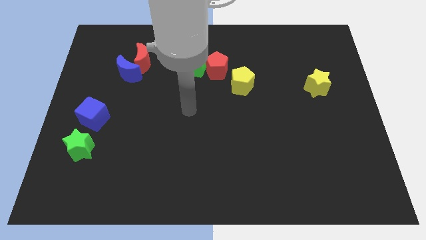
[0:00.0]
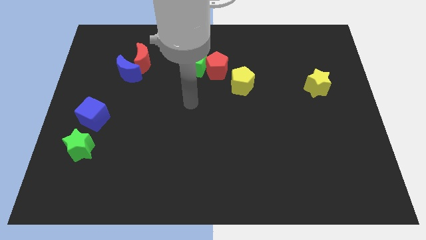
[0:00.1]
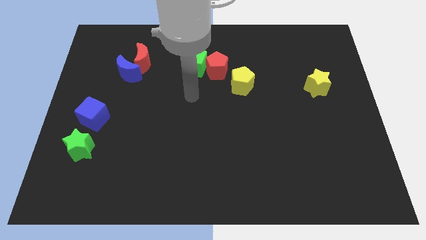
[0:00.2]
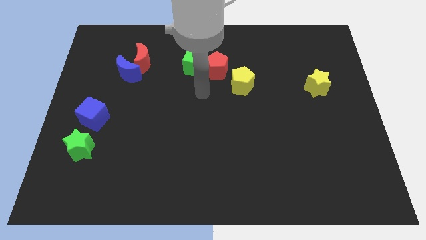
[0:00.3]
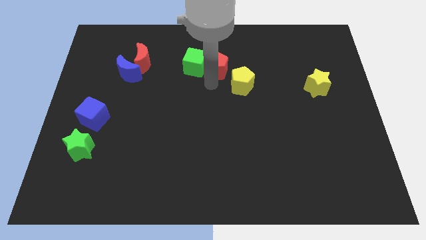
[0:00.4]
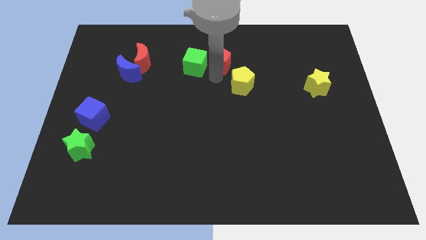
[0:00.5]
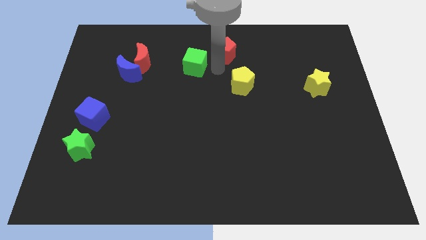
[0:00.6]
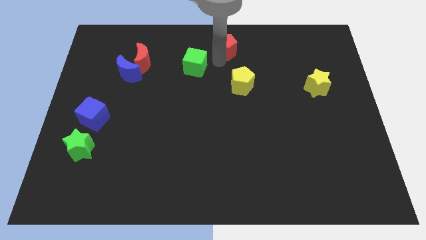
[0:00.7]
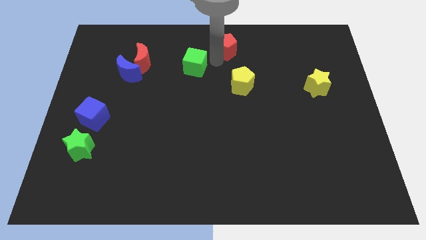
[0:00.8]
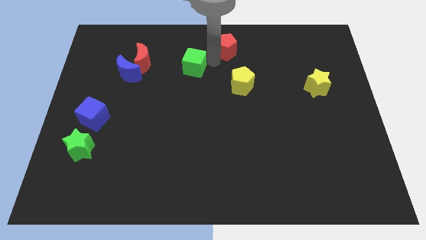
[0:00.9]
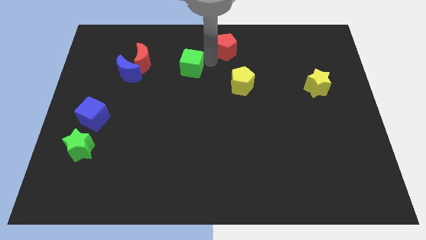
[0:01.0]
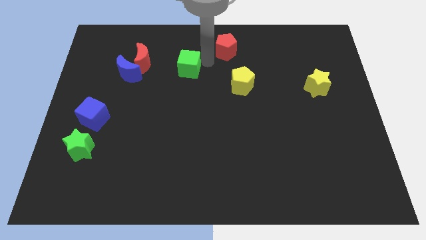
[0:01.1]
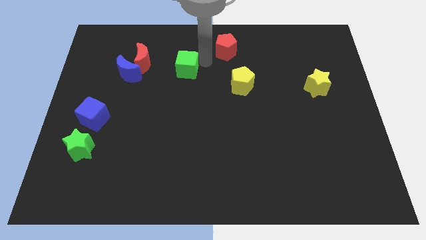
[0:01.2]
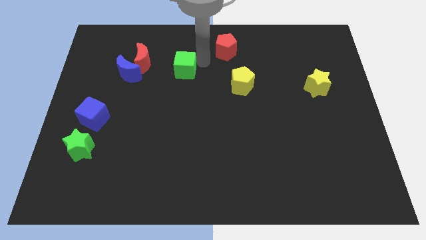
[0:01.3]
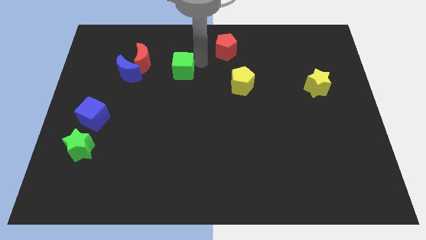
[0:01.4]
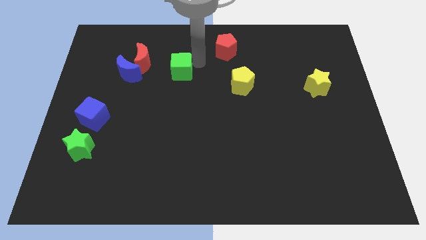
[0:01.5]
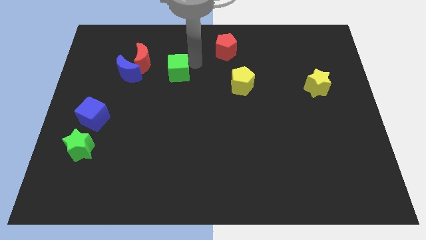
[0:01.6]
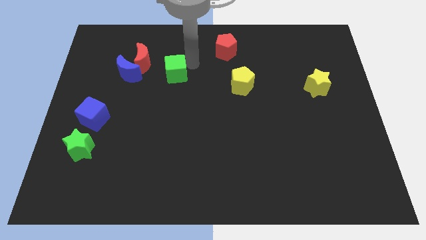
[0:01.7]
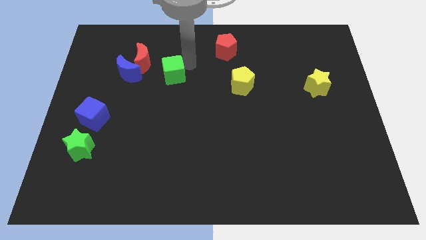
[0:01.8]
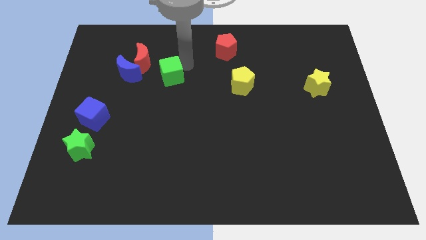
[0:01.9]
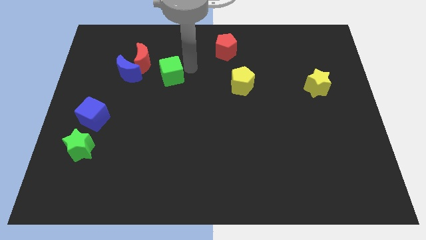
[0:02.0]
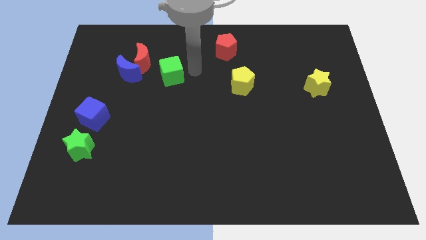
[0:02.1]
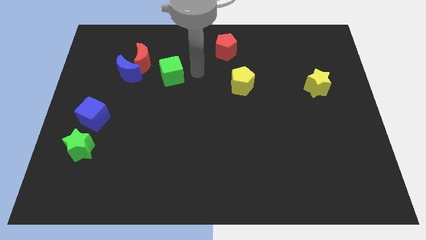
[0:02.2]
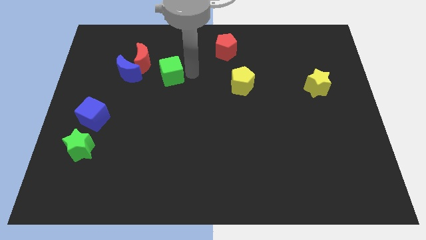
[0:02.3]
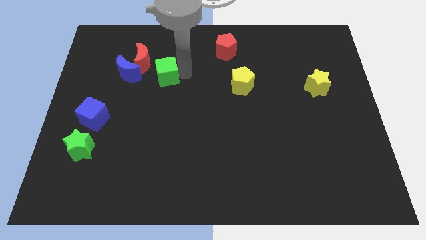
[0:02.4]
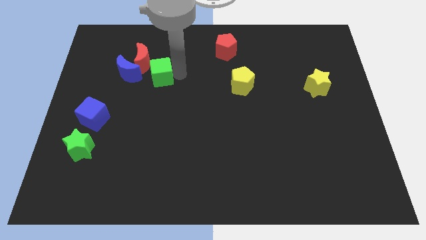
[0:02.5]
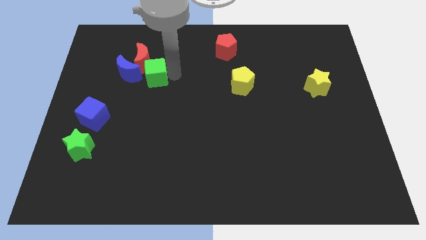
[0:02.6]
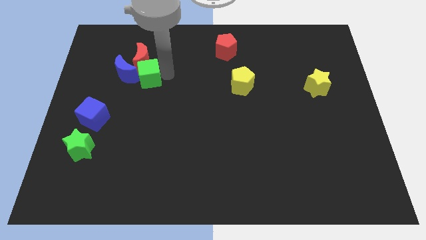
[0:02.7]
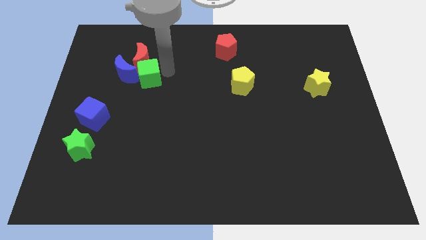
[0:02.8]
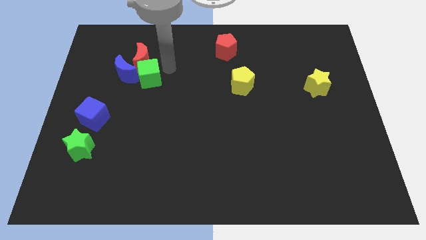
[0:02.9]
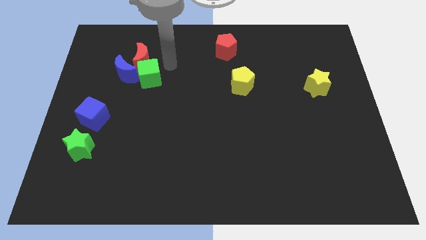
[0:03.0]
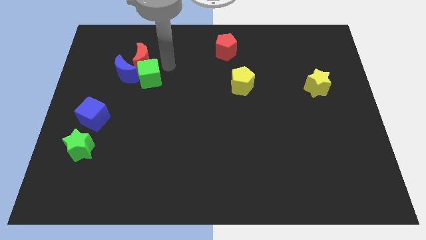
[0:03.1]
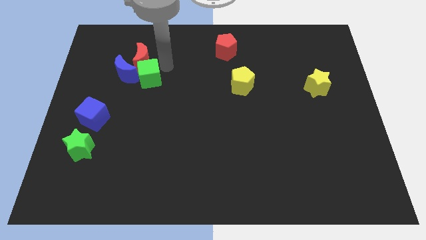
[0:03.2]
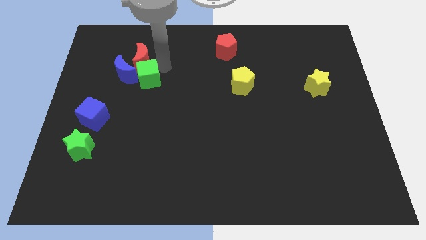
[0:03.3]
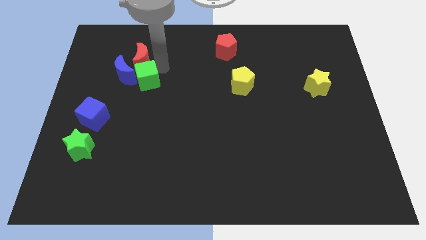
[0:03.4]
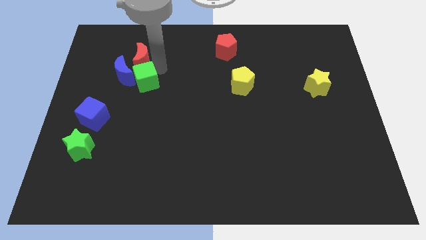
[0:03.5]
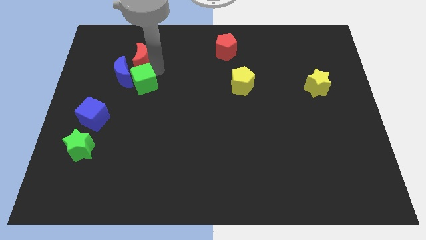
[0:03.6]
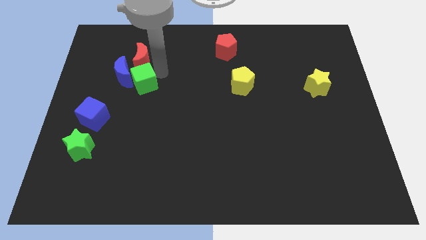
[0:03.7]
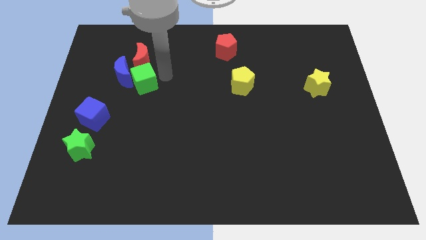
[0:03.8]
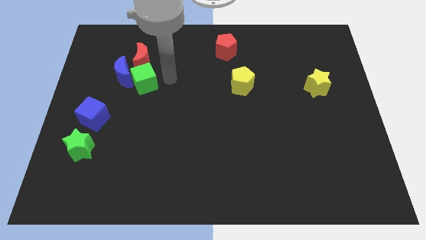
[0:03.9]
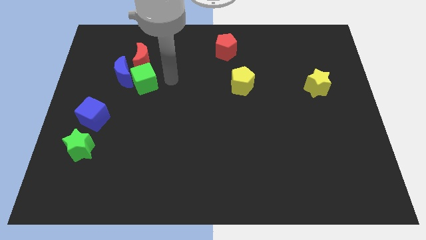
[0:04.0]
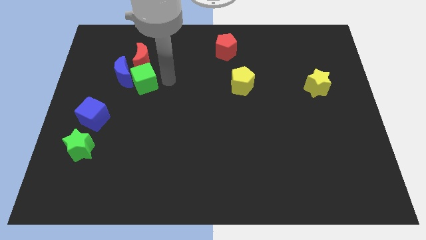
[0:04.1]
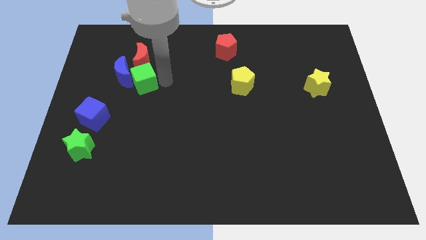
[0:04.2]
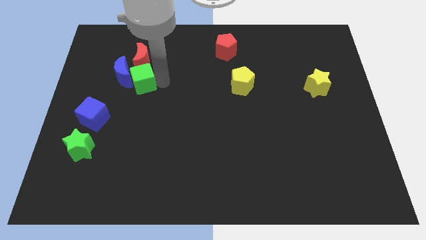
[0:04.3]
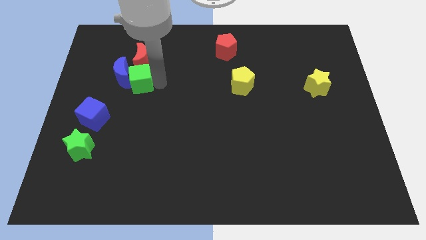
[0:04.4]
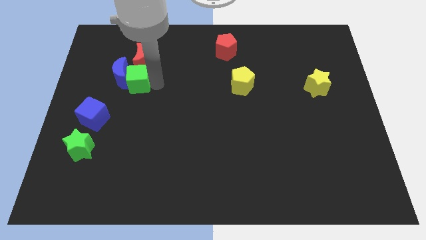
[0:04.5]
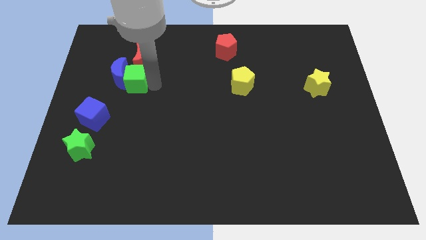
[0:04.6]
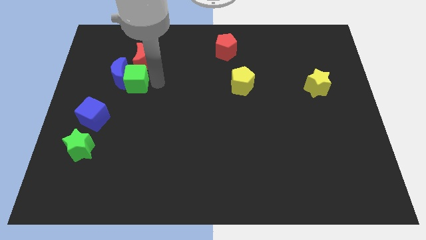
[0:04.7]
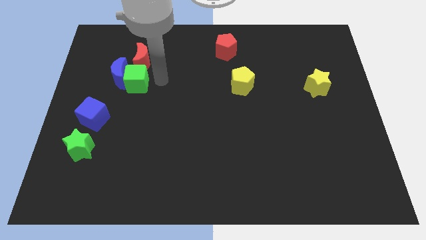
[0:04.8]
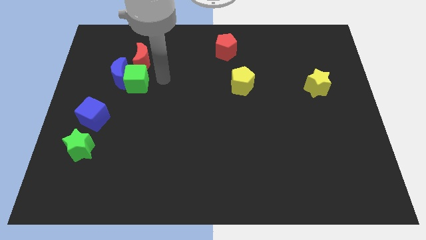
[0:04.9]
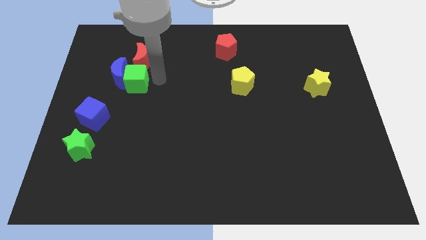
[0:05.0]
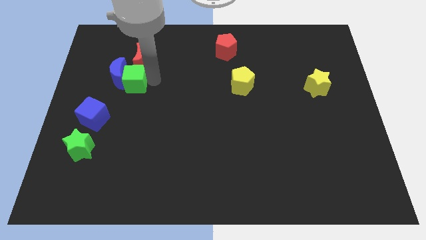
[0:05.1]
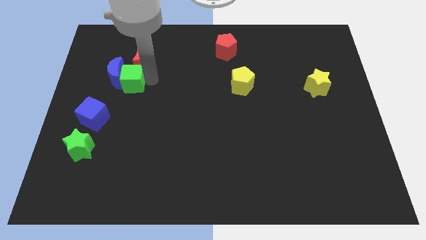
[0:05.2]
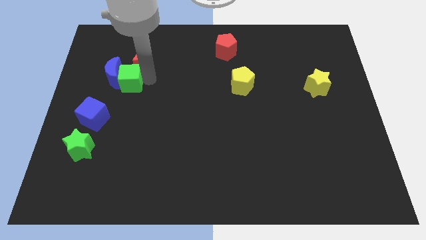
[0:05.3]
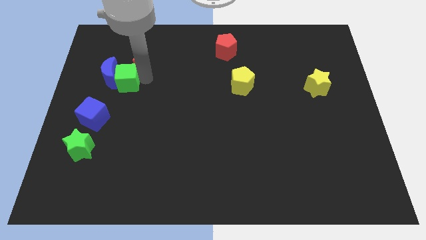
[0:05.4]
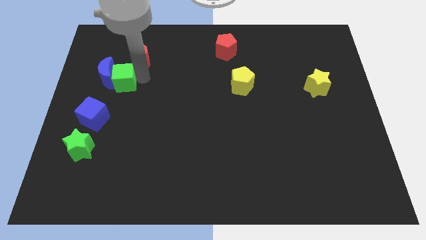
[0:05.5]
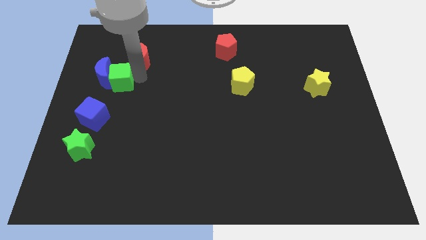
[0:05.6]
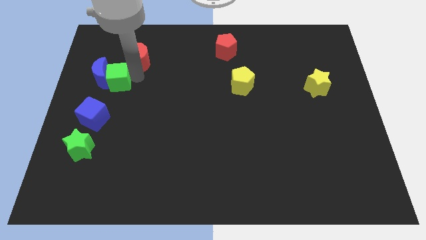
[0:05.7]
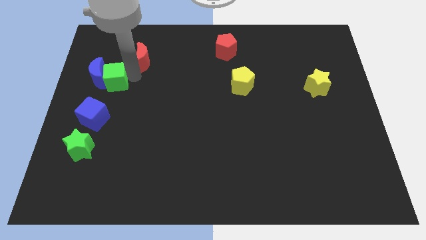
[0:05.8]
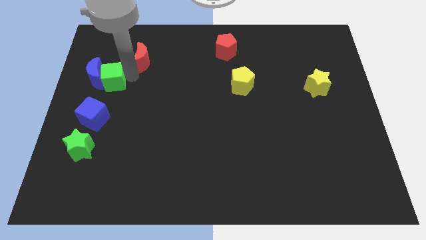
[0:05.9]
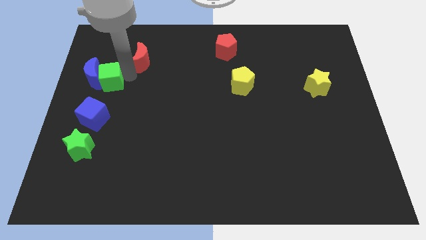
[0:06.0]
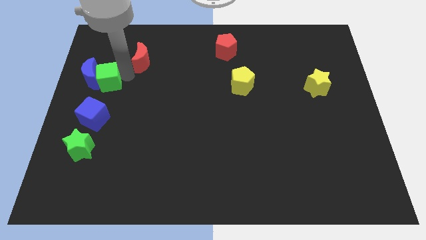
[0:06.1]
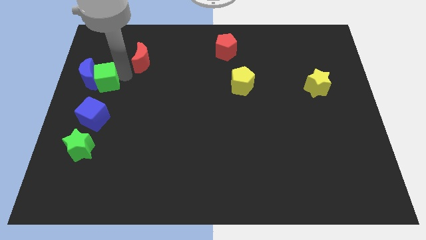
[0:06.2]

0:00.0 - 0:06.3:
slide the green cube to the left side

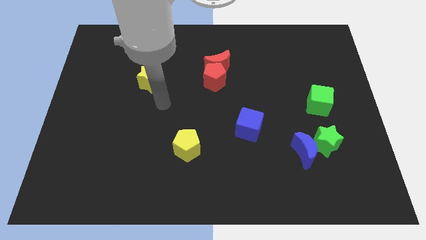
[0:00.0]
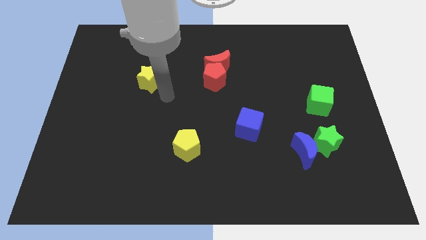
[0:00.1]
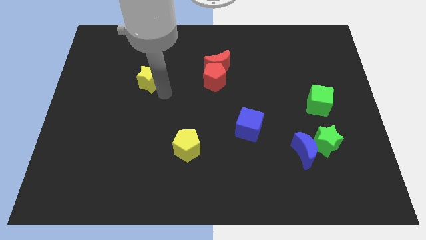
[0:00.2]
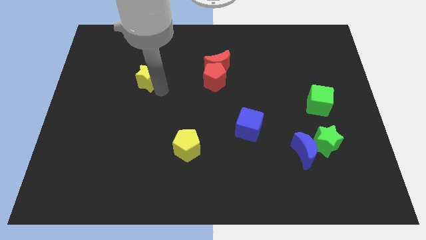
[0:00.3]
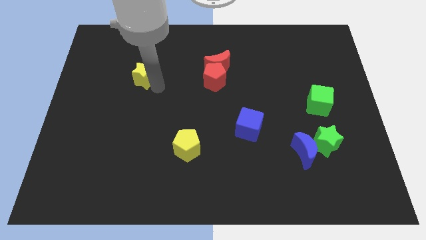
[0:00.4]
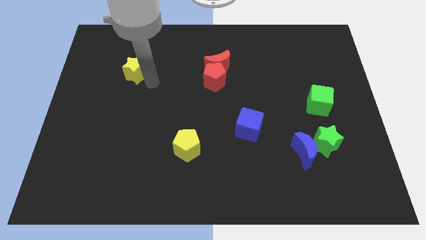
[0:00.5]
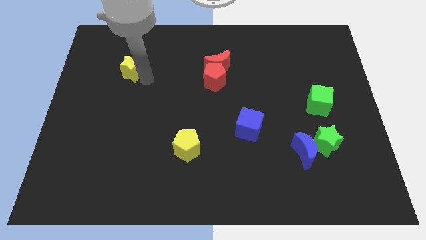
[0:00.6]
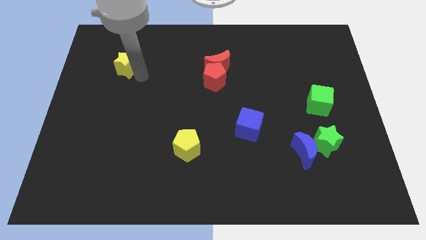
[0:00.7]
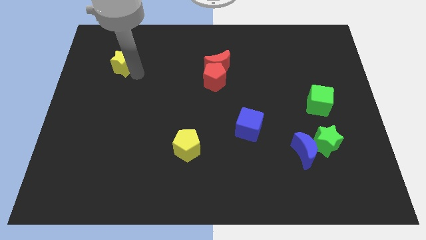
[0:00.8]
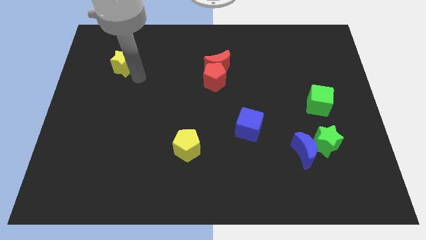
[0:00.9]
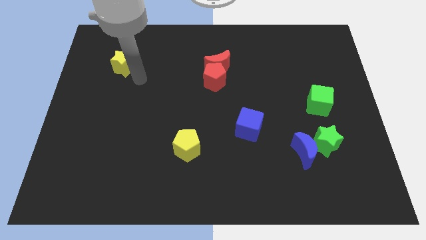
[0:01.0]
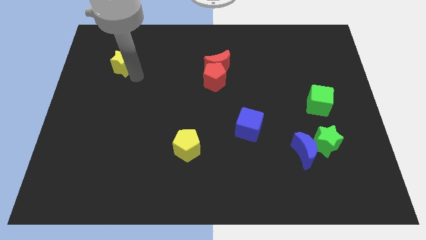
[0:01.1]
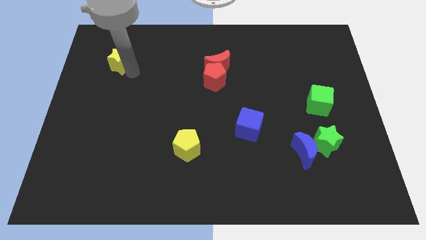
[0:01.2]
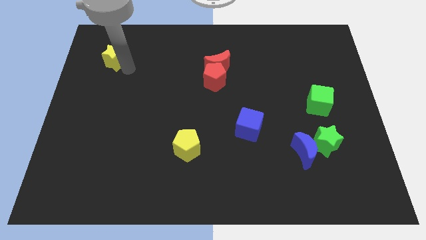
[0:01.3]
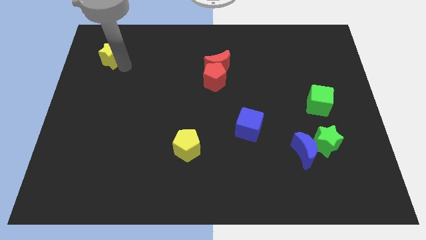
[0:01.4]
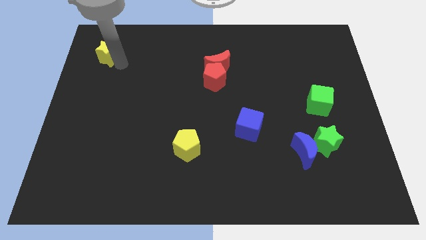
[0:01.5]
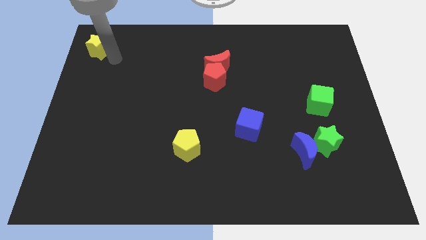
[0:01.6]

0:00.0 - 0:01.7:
put the yellow star to the top left of the board
